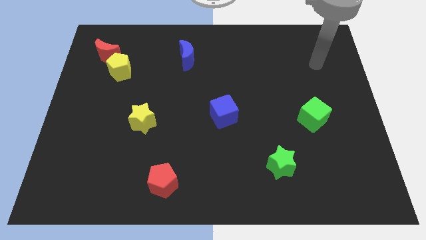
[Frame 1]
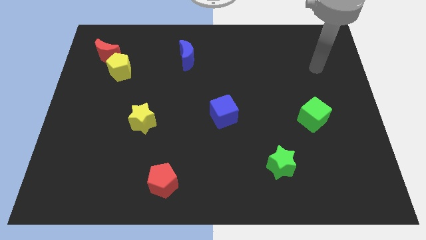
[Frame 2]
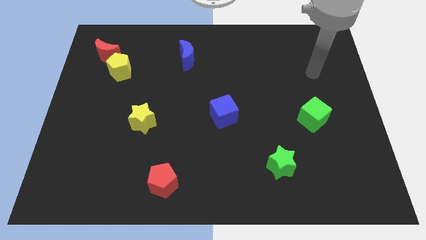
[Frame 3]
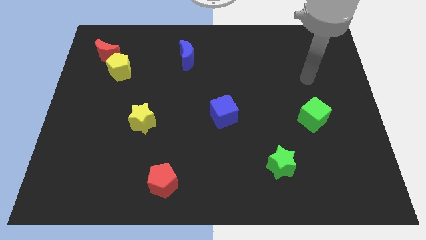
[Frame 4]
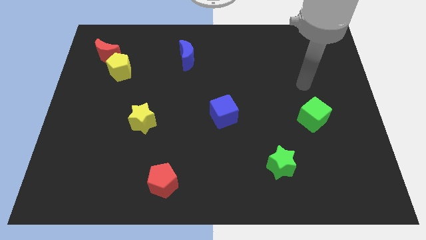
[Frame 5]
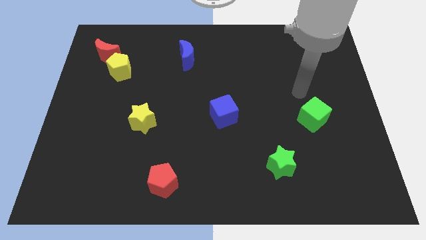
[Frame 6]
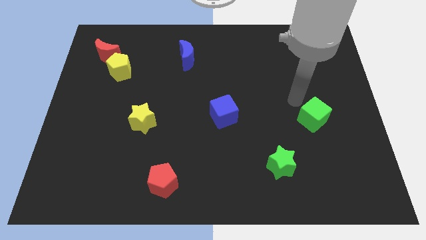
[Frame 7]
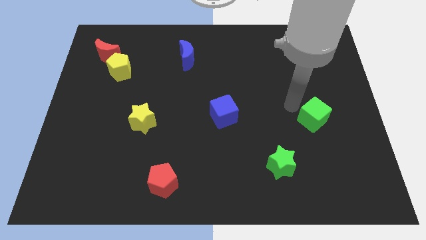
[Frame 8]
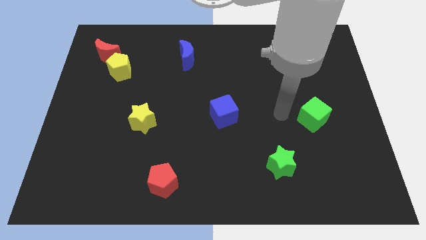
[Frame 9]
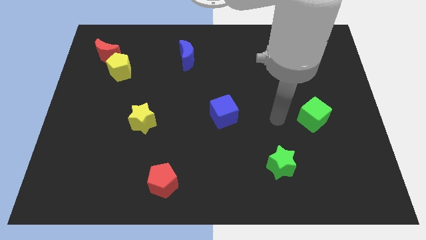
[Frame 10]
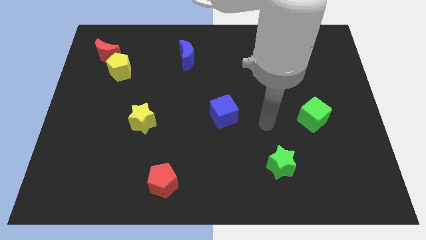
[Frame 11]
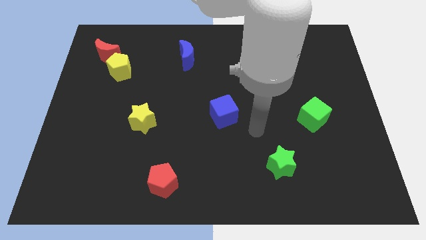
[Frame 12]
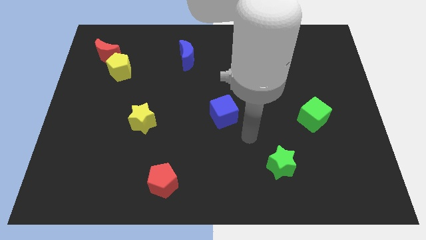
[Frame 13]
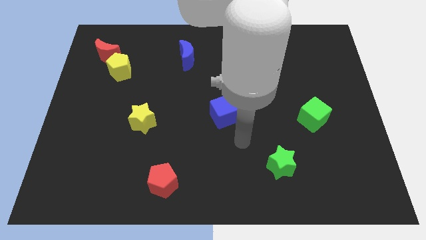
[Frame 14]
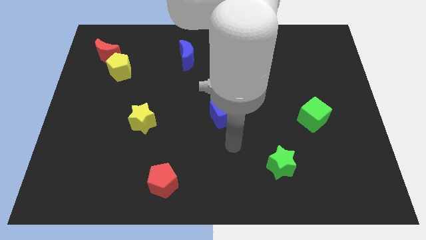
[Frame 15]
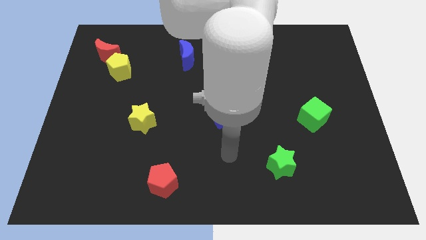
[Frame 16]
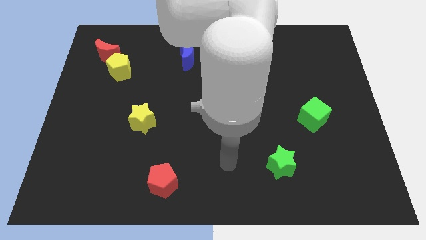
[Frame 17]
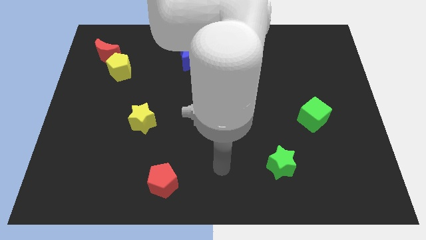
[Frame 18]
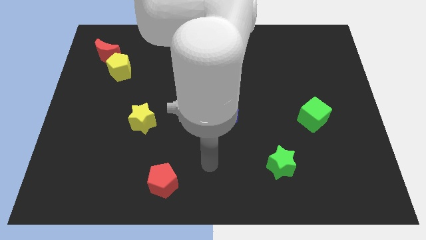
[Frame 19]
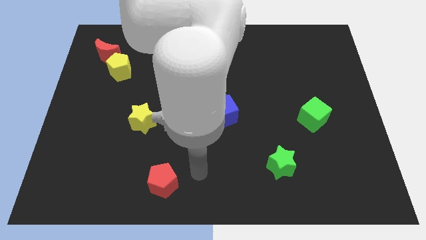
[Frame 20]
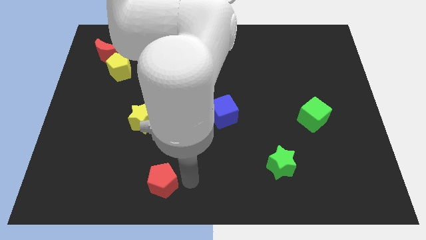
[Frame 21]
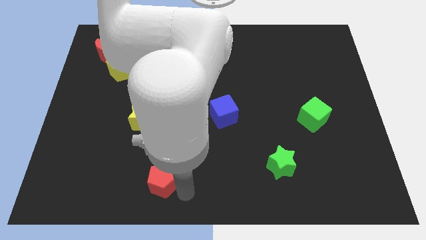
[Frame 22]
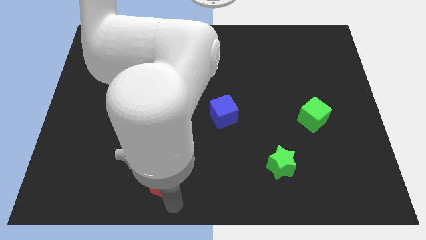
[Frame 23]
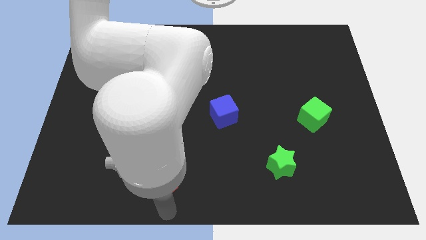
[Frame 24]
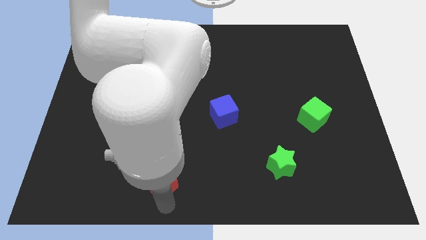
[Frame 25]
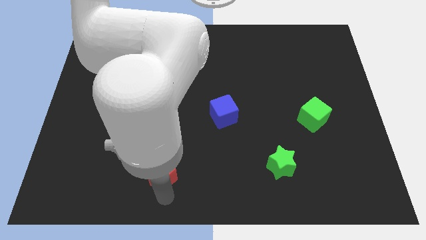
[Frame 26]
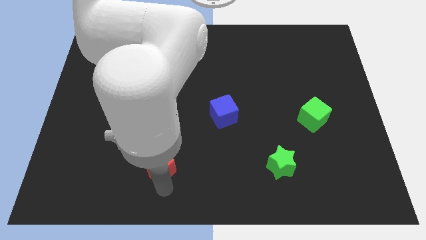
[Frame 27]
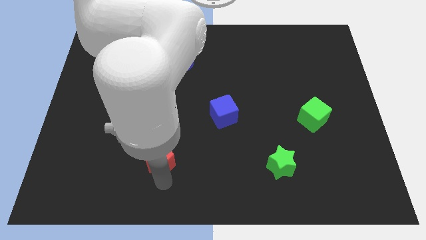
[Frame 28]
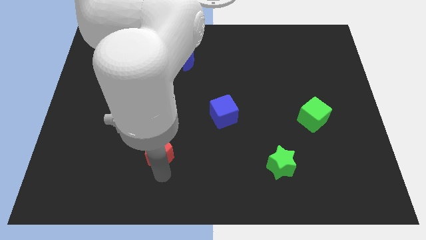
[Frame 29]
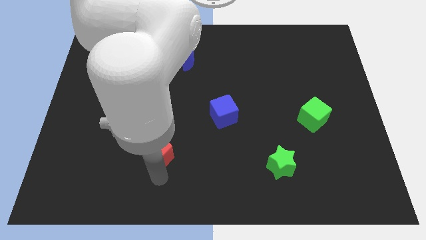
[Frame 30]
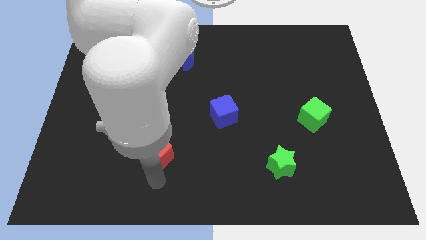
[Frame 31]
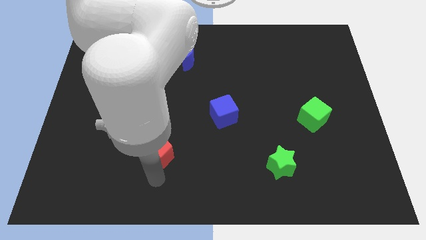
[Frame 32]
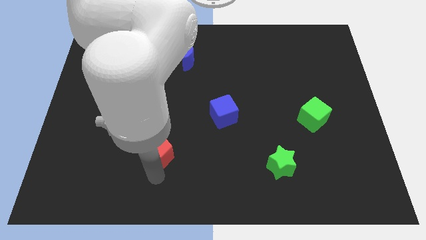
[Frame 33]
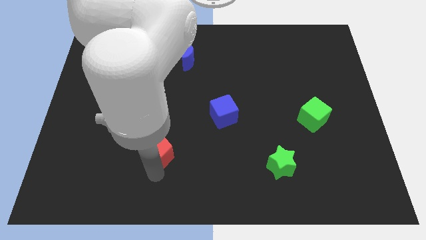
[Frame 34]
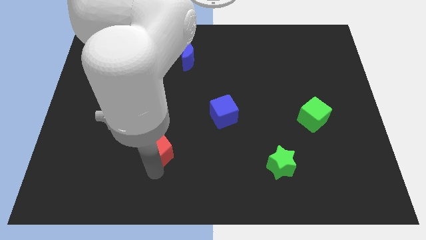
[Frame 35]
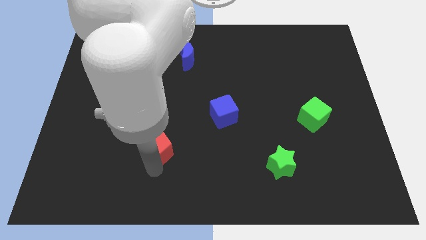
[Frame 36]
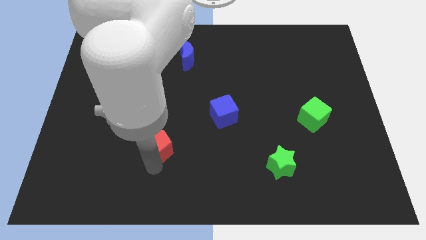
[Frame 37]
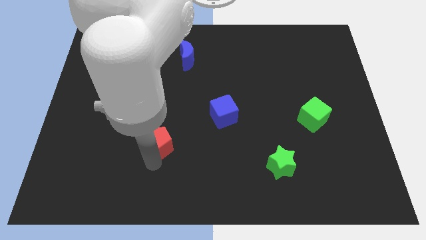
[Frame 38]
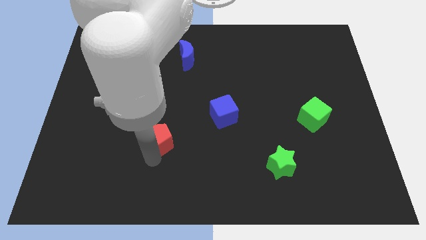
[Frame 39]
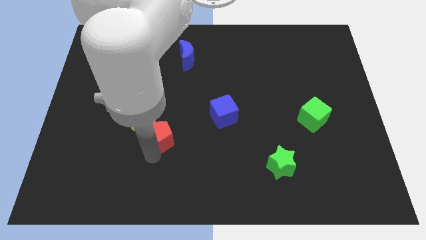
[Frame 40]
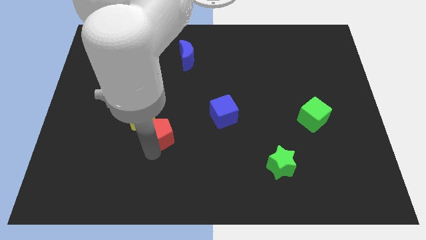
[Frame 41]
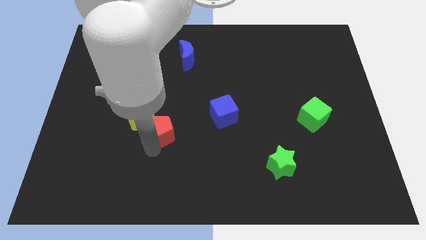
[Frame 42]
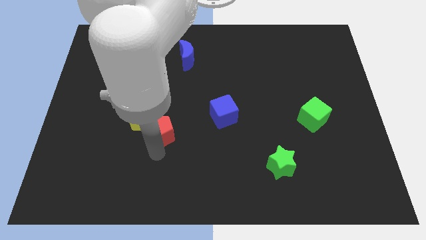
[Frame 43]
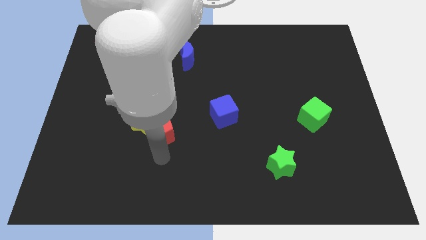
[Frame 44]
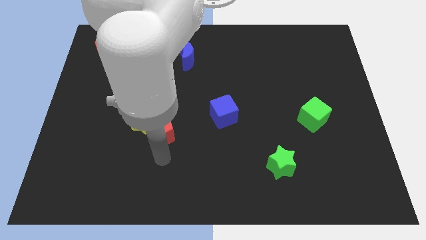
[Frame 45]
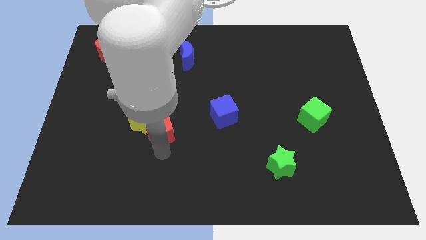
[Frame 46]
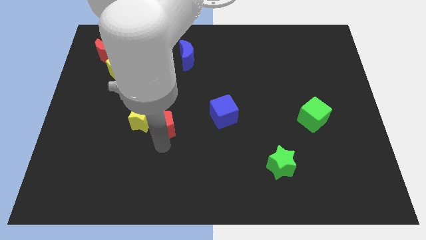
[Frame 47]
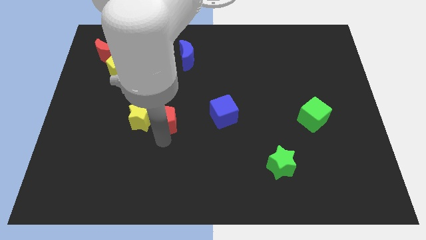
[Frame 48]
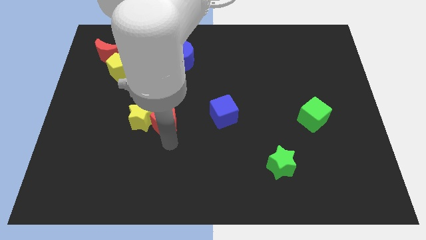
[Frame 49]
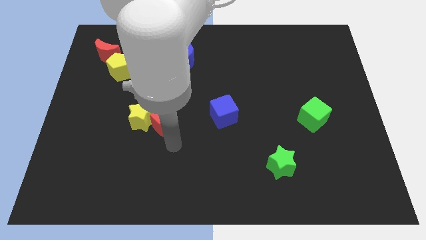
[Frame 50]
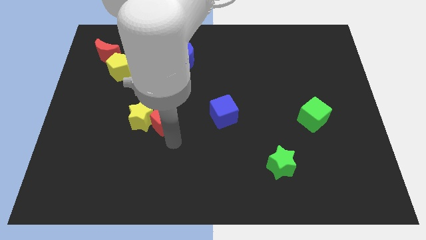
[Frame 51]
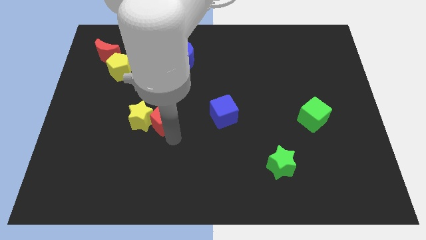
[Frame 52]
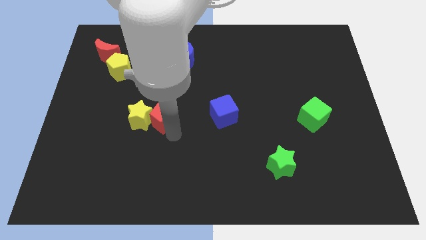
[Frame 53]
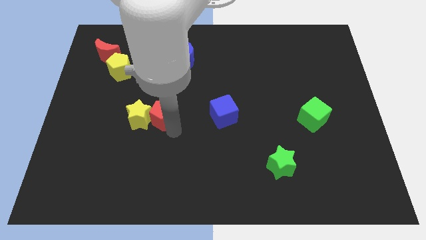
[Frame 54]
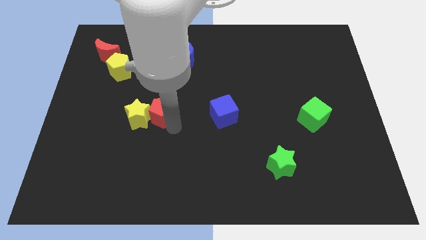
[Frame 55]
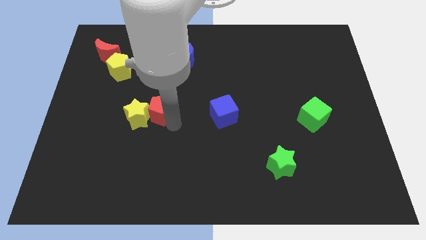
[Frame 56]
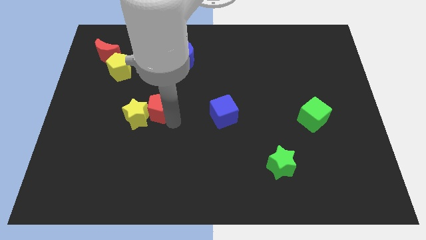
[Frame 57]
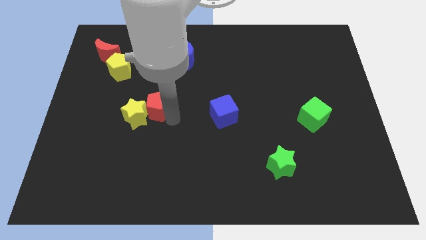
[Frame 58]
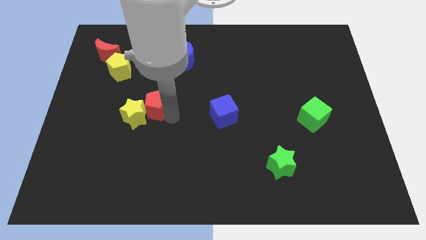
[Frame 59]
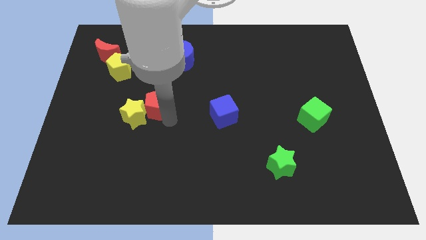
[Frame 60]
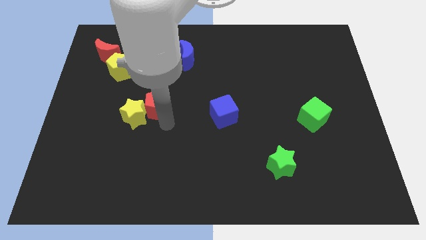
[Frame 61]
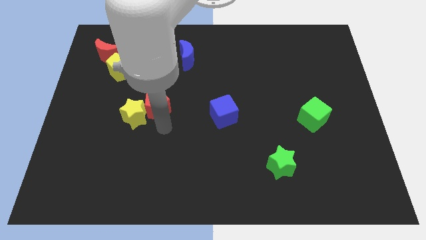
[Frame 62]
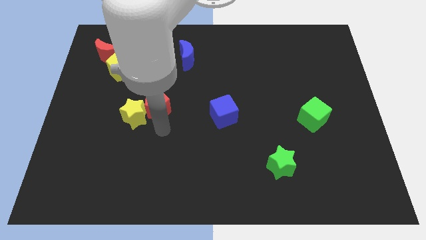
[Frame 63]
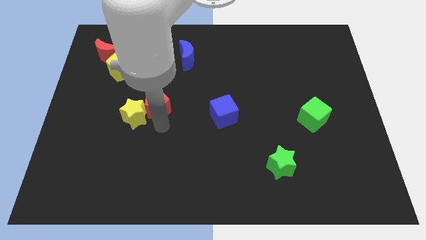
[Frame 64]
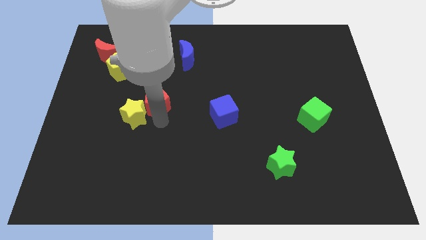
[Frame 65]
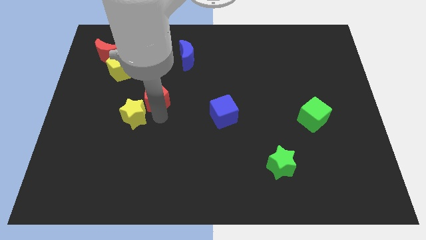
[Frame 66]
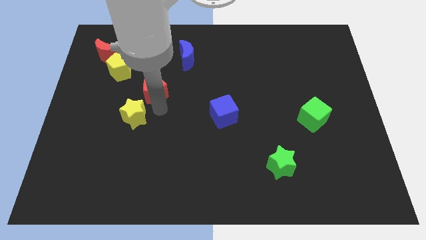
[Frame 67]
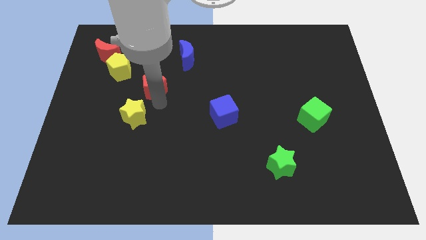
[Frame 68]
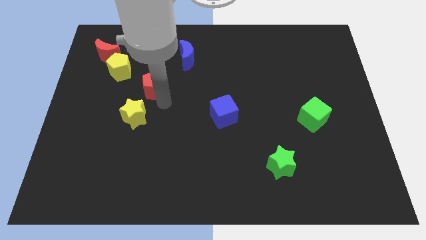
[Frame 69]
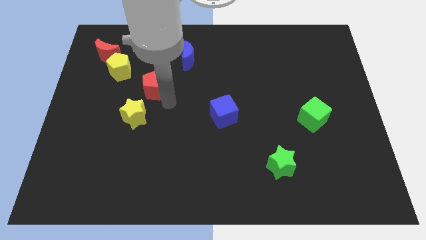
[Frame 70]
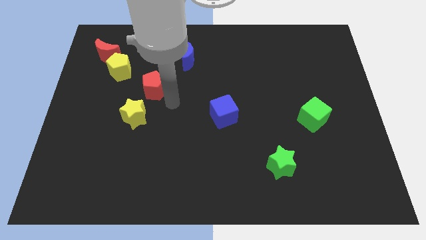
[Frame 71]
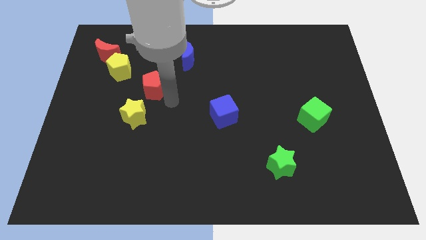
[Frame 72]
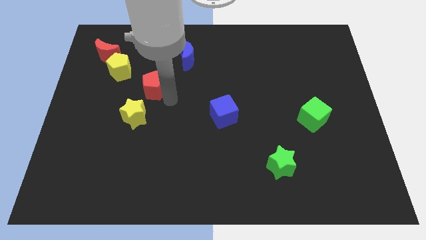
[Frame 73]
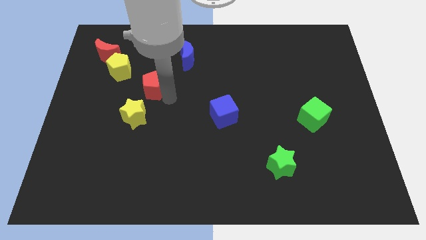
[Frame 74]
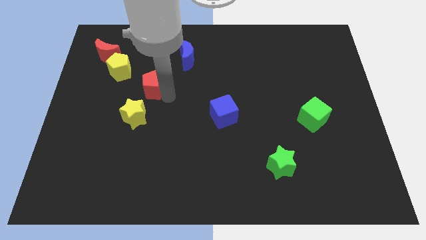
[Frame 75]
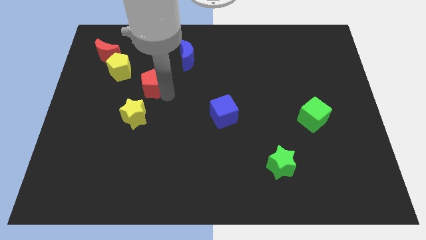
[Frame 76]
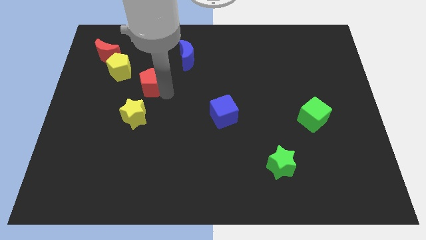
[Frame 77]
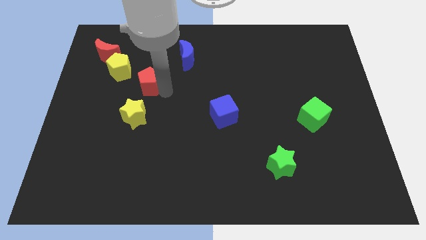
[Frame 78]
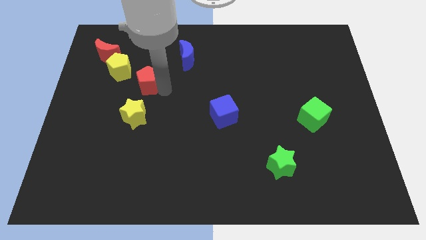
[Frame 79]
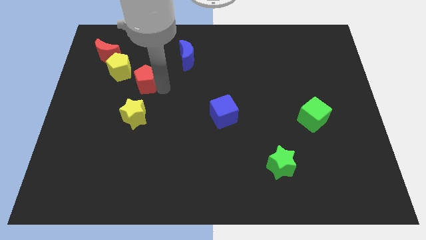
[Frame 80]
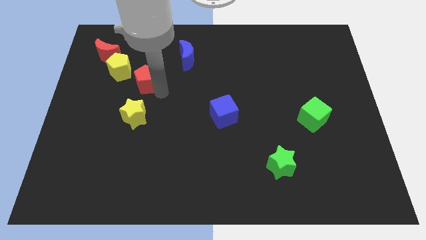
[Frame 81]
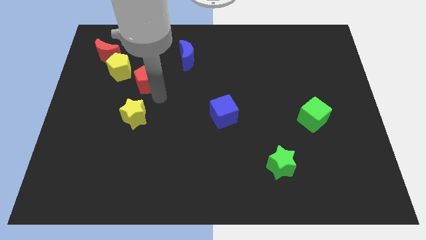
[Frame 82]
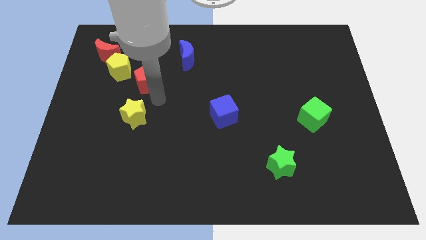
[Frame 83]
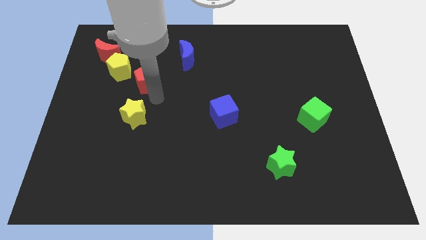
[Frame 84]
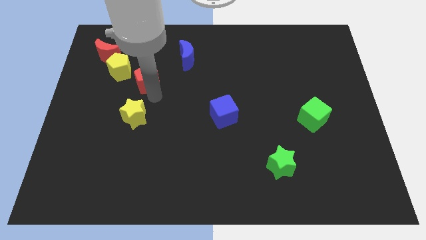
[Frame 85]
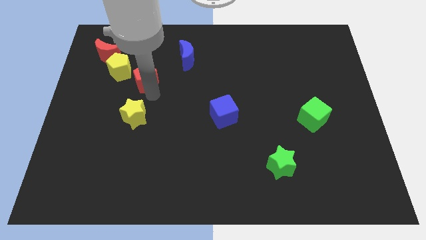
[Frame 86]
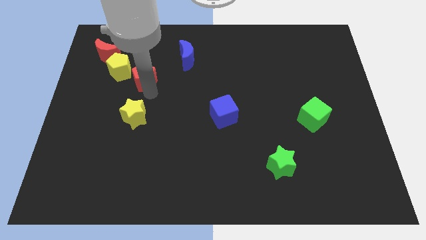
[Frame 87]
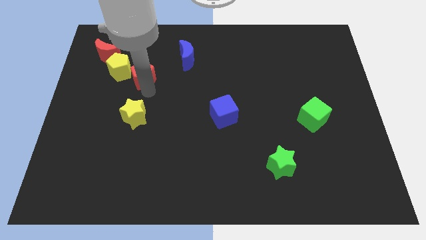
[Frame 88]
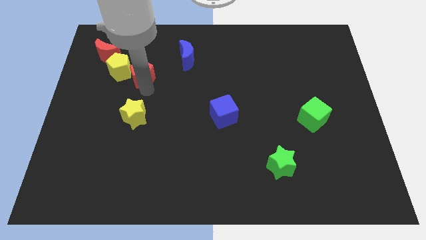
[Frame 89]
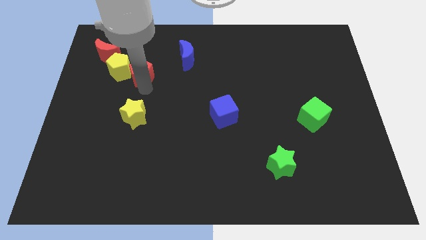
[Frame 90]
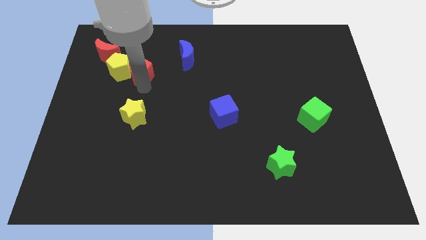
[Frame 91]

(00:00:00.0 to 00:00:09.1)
slide the red pentagon to the top right side of the yellow pentagon
